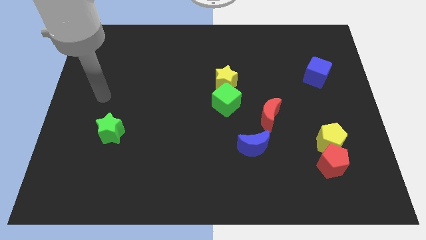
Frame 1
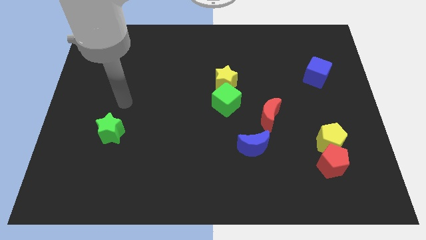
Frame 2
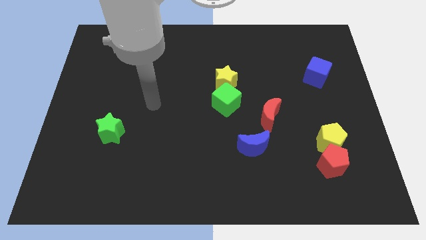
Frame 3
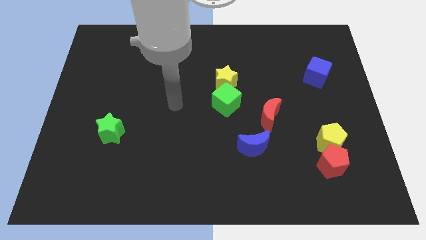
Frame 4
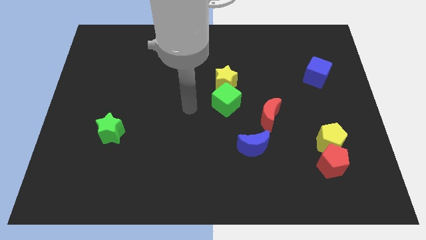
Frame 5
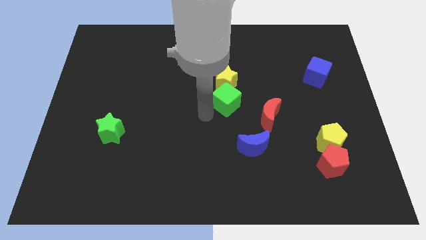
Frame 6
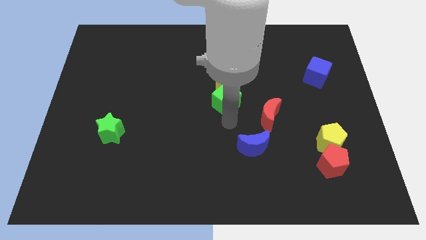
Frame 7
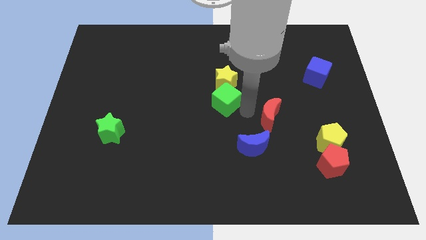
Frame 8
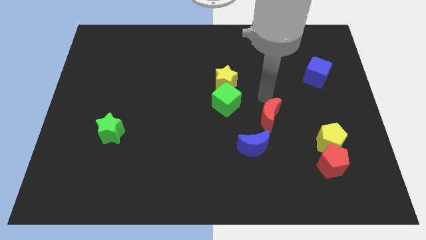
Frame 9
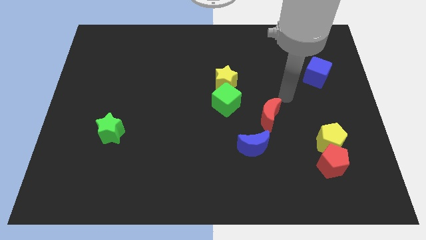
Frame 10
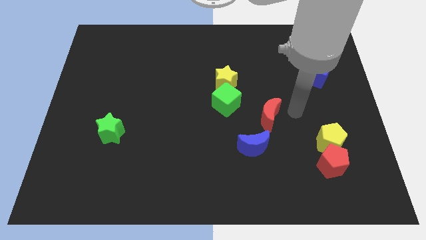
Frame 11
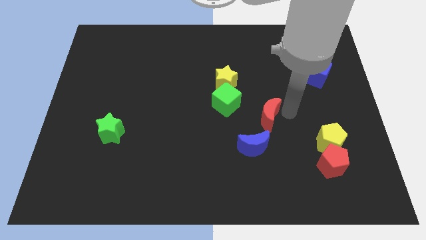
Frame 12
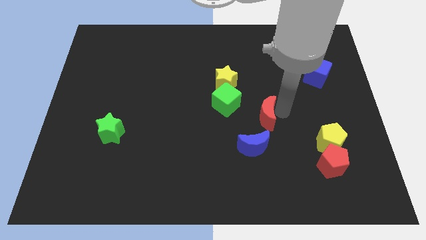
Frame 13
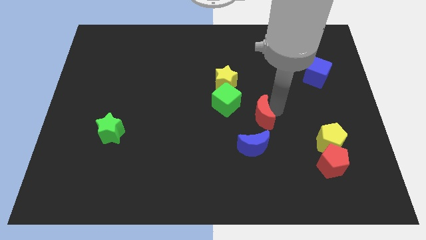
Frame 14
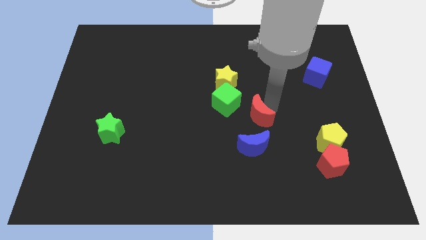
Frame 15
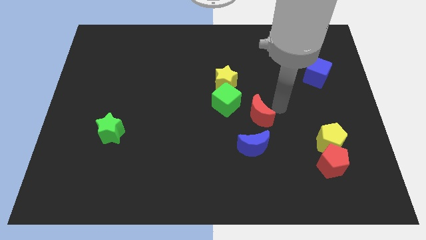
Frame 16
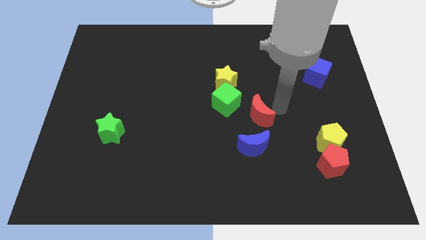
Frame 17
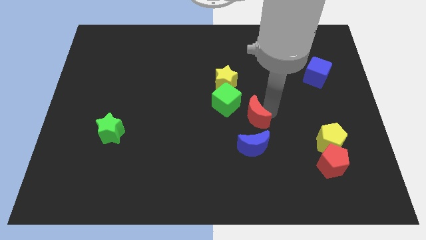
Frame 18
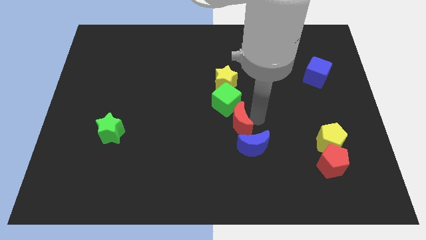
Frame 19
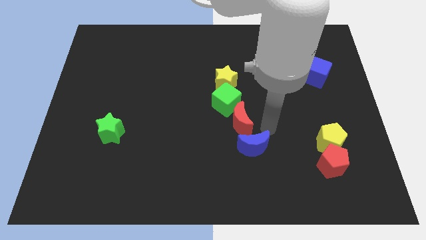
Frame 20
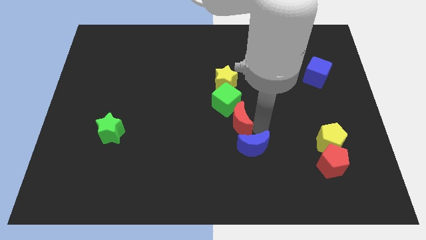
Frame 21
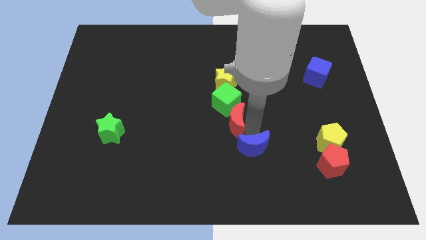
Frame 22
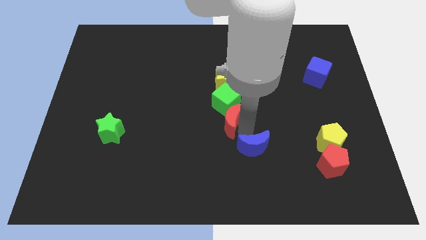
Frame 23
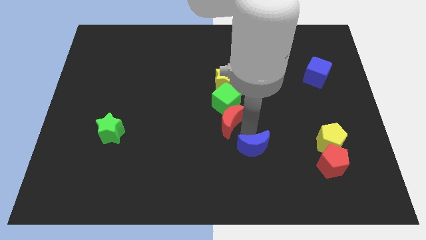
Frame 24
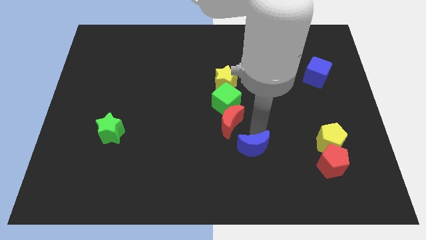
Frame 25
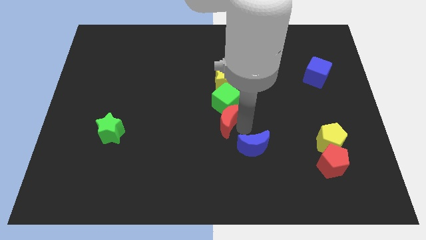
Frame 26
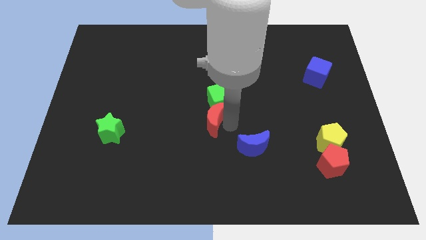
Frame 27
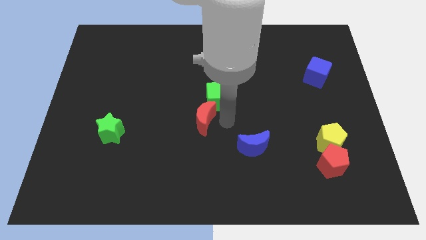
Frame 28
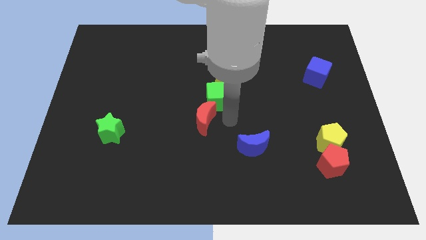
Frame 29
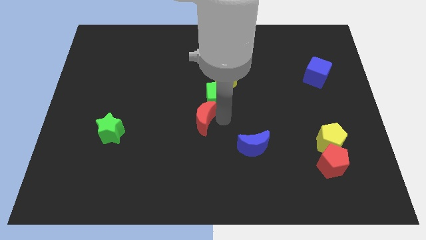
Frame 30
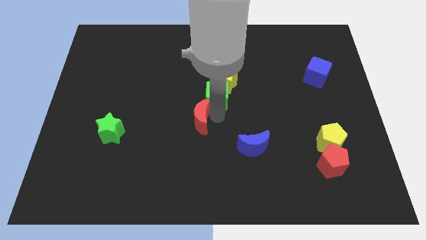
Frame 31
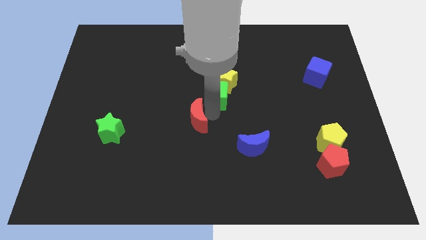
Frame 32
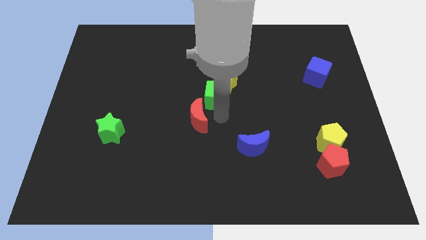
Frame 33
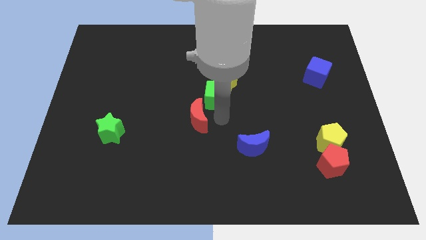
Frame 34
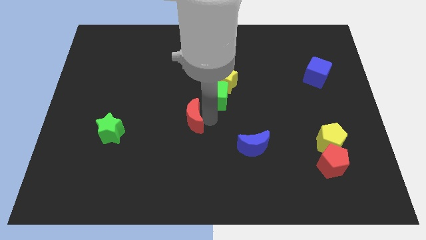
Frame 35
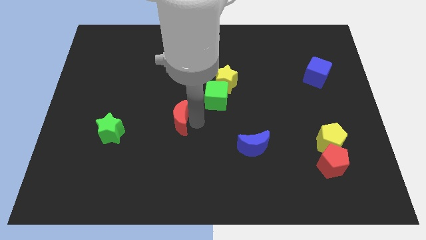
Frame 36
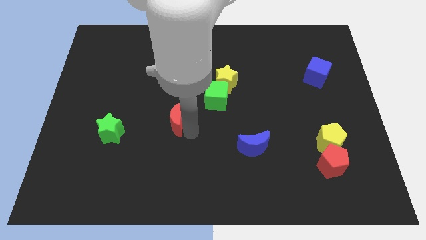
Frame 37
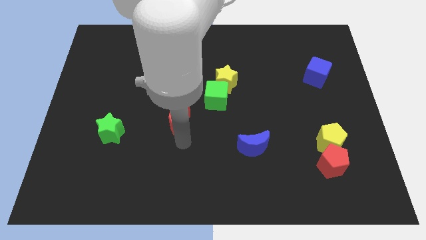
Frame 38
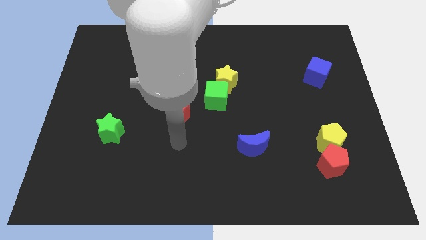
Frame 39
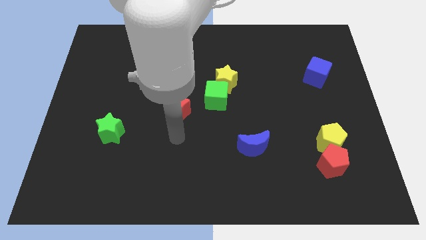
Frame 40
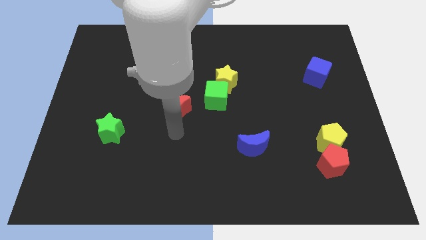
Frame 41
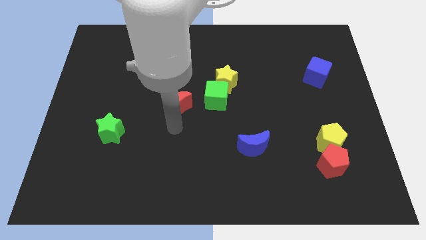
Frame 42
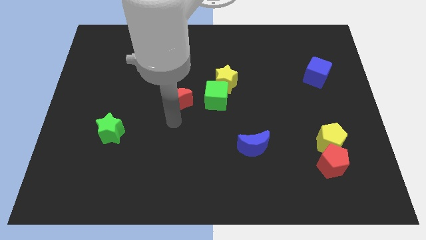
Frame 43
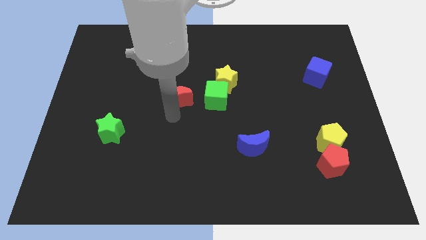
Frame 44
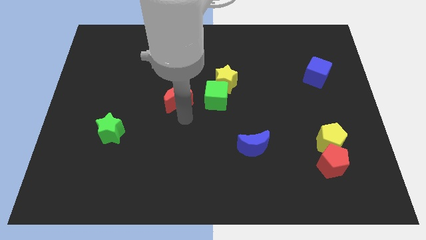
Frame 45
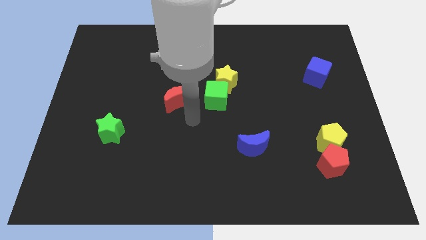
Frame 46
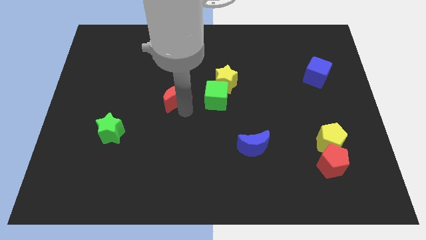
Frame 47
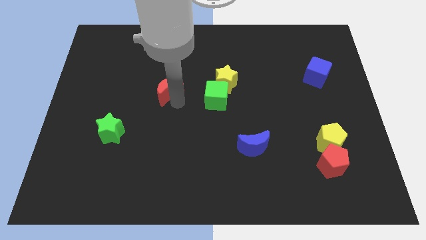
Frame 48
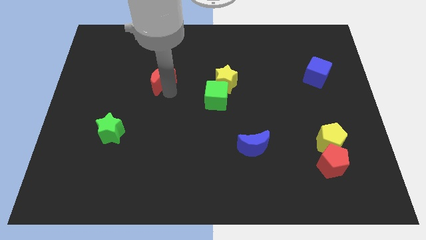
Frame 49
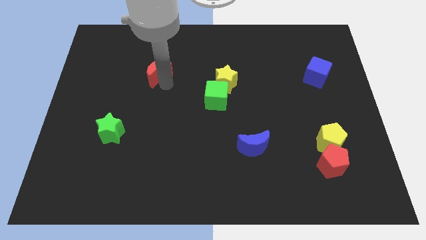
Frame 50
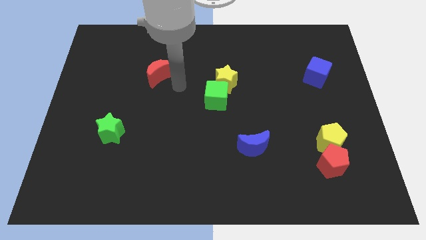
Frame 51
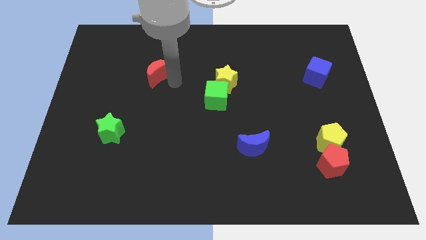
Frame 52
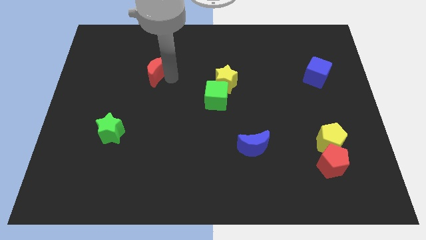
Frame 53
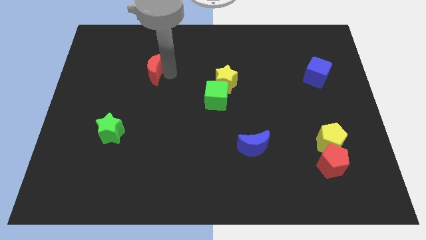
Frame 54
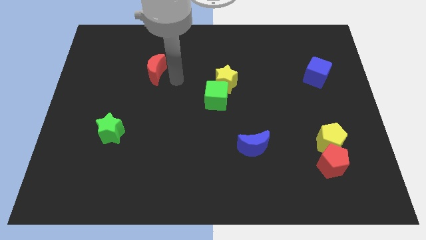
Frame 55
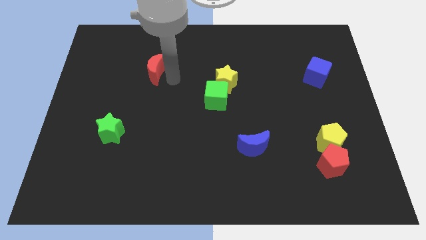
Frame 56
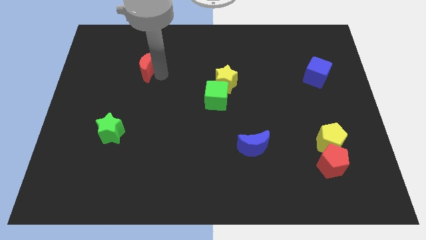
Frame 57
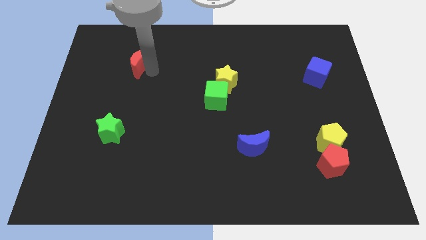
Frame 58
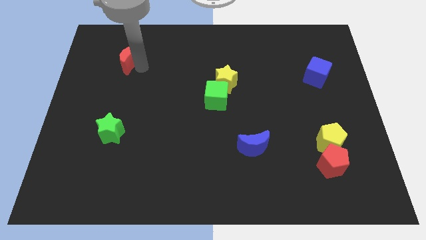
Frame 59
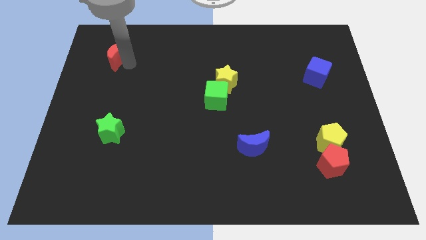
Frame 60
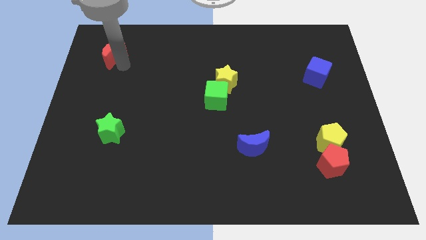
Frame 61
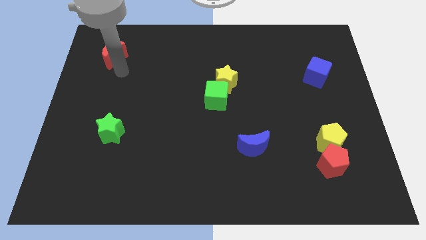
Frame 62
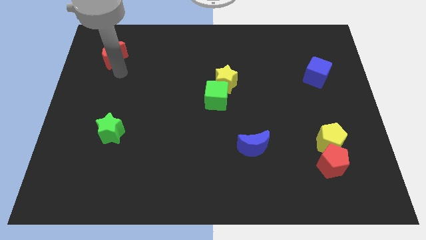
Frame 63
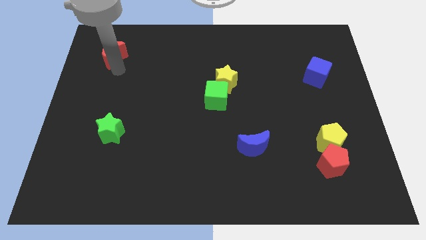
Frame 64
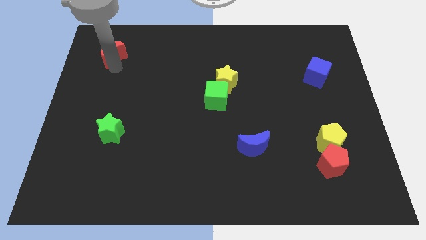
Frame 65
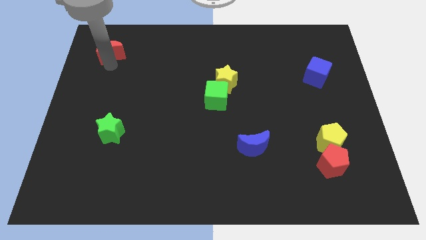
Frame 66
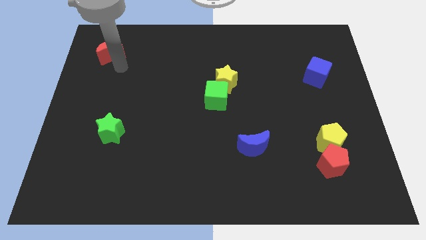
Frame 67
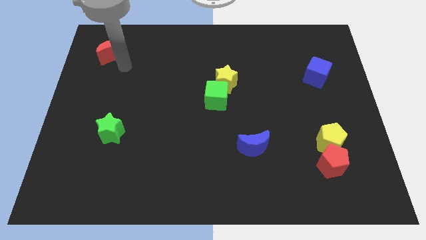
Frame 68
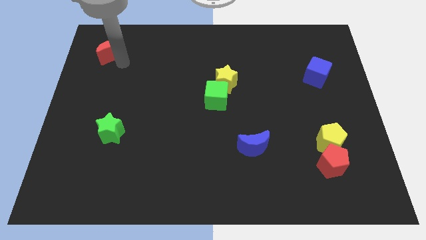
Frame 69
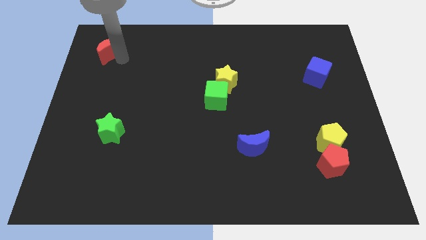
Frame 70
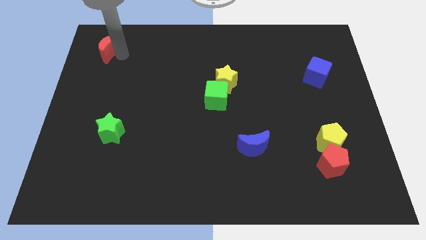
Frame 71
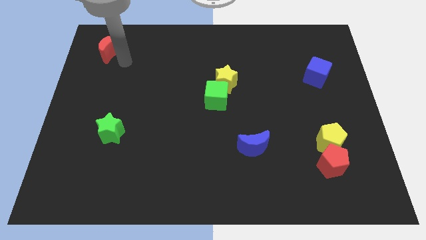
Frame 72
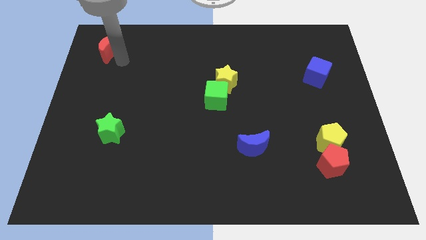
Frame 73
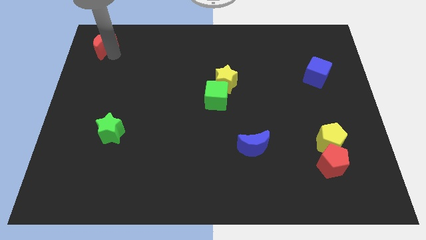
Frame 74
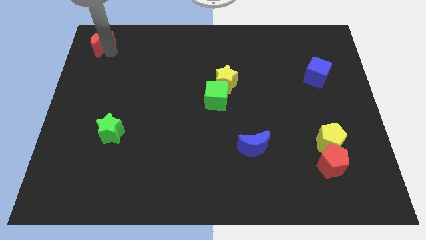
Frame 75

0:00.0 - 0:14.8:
push the red moon to the top left of the board
